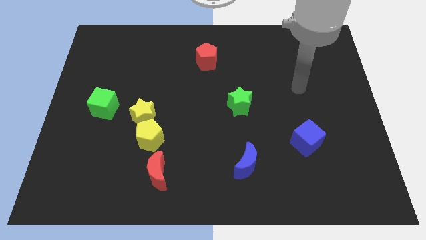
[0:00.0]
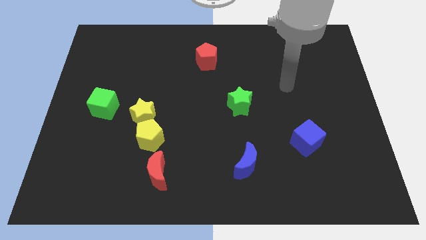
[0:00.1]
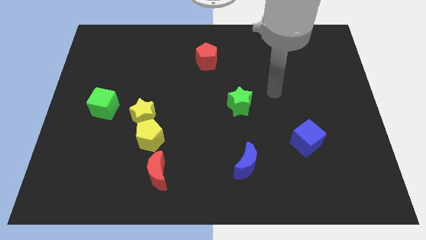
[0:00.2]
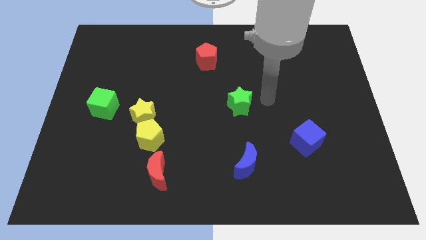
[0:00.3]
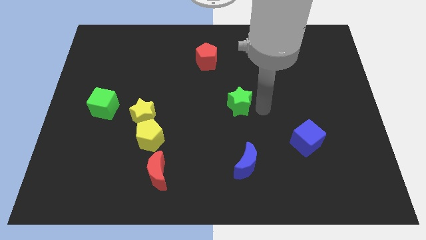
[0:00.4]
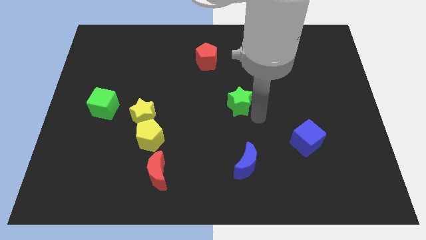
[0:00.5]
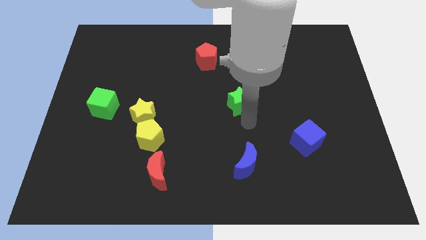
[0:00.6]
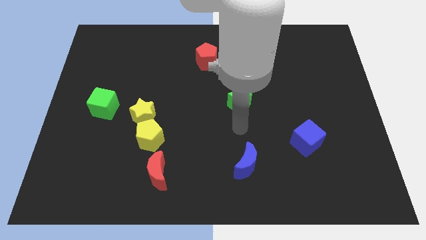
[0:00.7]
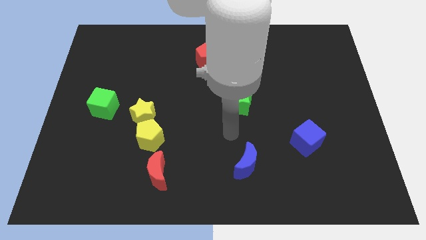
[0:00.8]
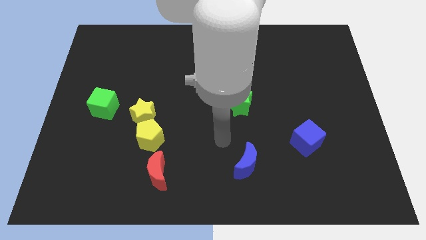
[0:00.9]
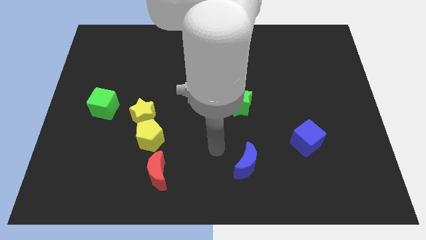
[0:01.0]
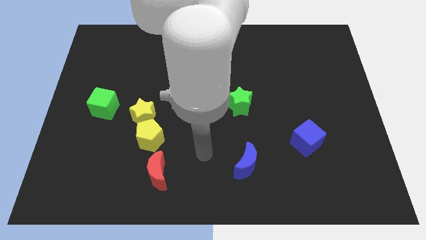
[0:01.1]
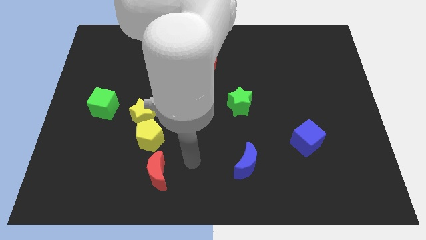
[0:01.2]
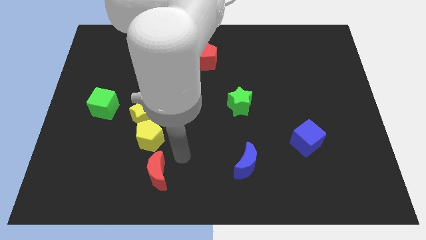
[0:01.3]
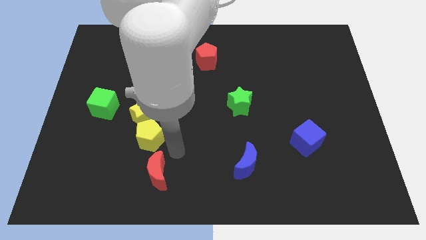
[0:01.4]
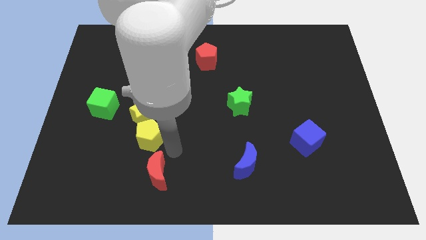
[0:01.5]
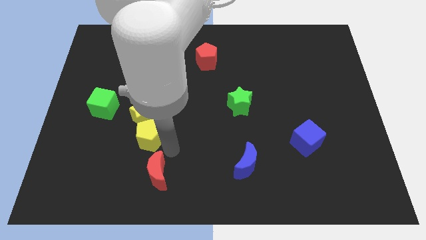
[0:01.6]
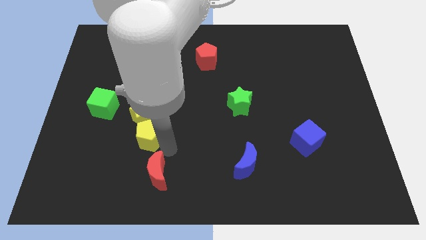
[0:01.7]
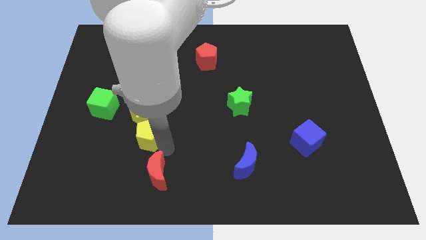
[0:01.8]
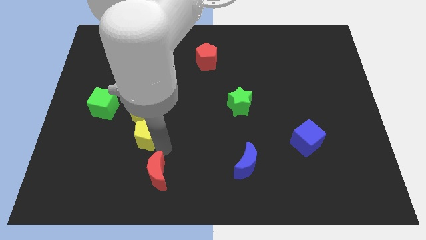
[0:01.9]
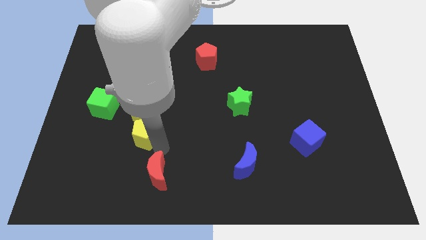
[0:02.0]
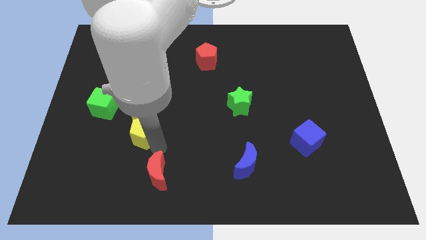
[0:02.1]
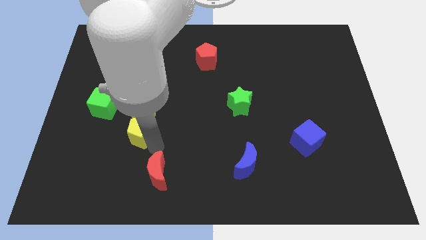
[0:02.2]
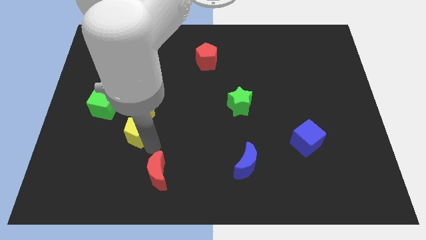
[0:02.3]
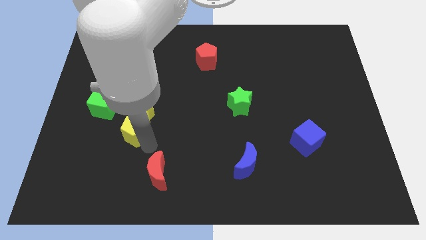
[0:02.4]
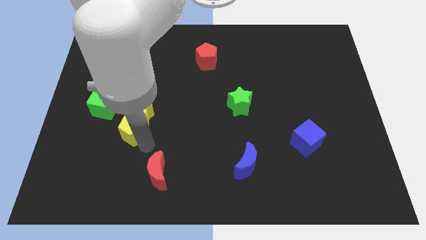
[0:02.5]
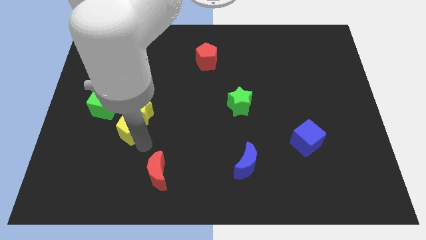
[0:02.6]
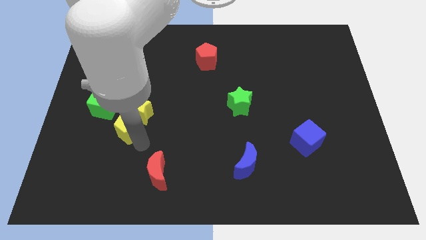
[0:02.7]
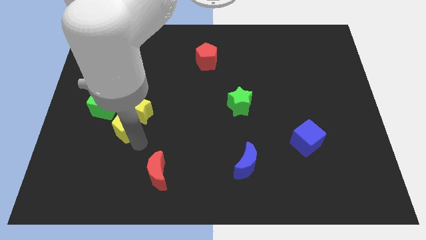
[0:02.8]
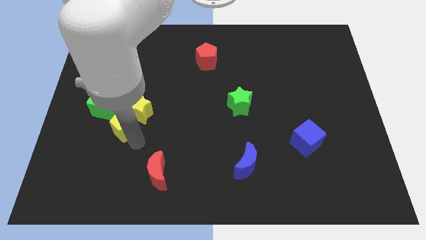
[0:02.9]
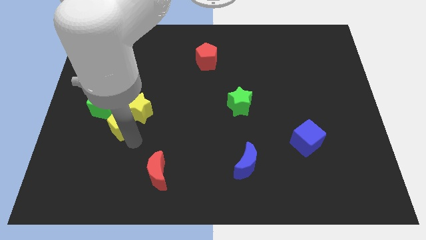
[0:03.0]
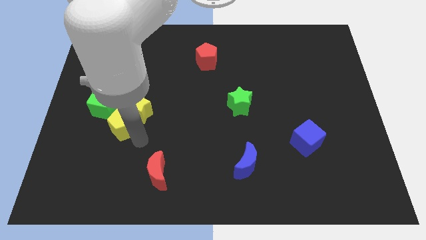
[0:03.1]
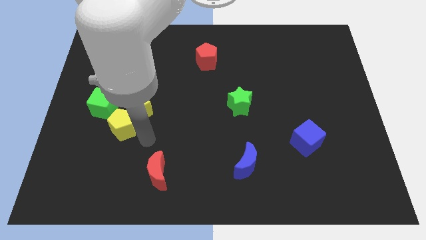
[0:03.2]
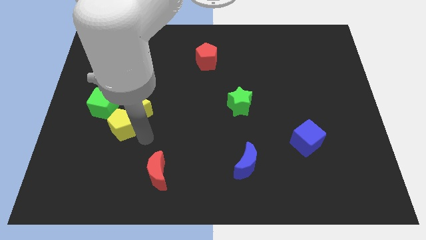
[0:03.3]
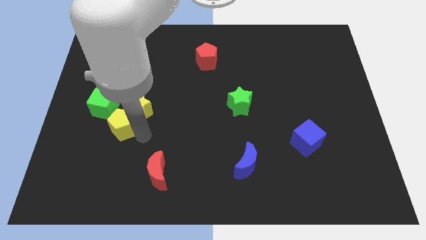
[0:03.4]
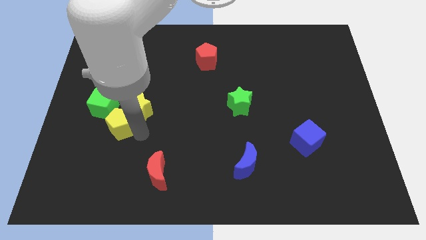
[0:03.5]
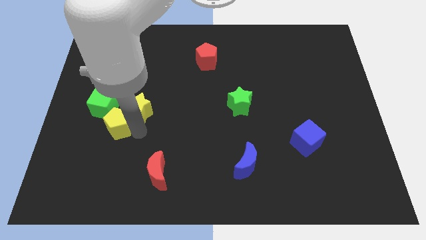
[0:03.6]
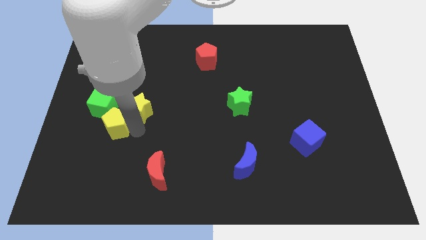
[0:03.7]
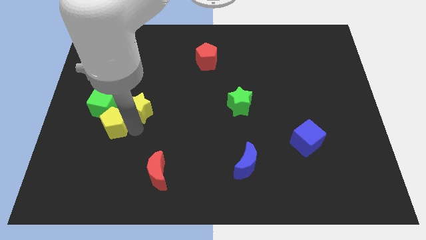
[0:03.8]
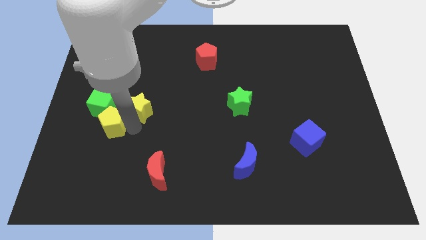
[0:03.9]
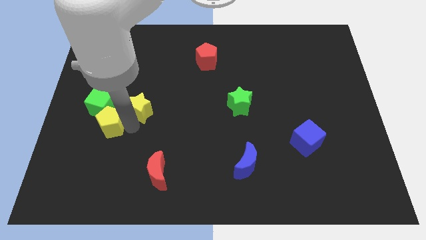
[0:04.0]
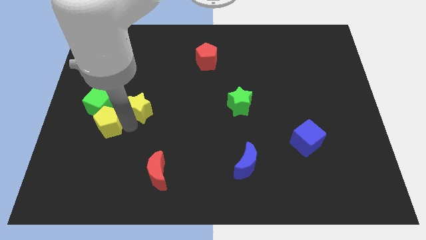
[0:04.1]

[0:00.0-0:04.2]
move the yellow pentagon away from the yellow star and red moon

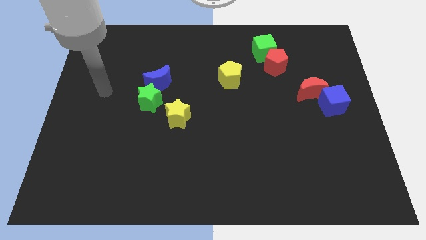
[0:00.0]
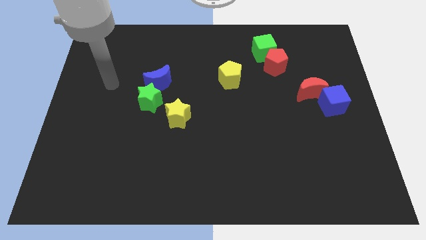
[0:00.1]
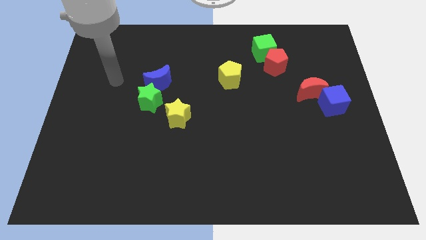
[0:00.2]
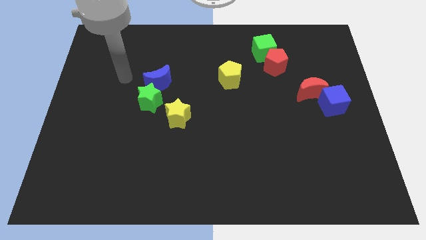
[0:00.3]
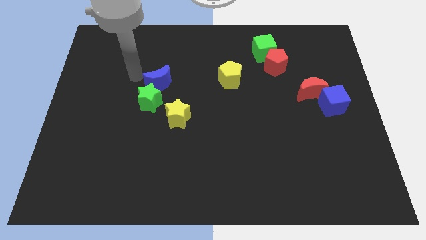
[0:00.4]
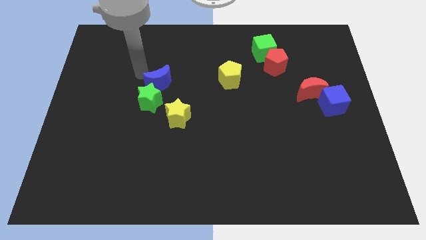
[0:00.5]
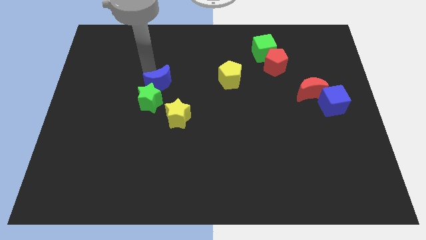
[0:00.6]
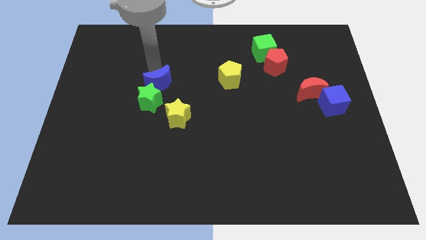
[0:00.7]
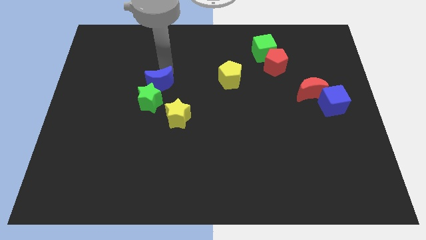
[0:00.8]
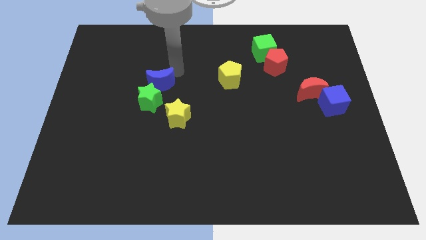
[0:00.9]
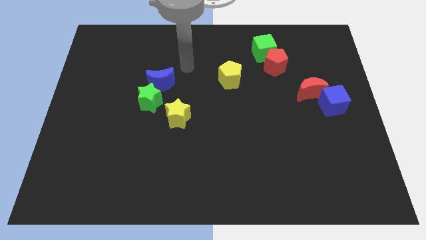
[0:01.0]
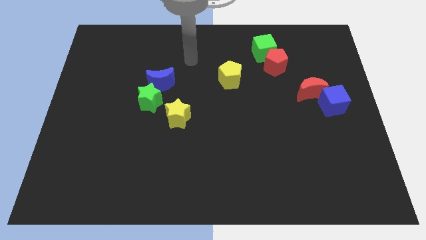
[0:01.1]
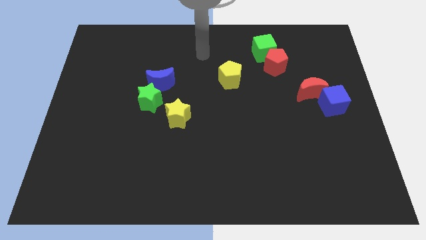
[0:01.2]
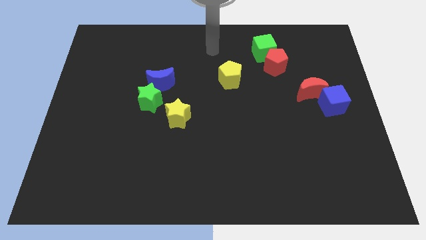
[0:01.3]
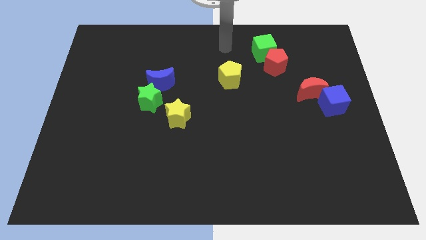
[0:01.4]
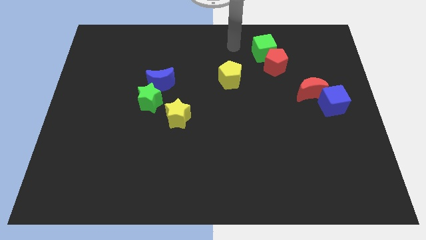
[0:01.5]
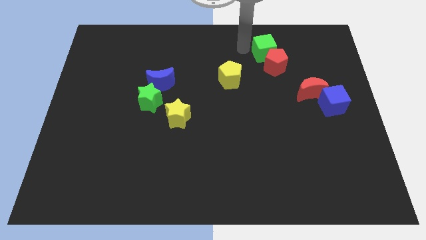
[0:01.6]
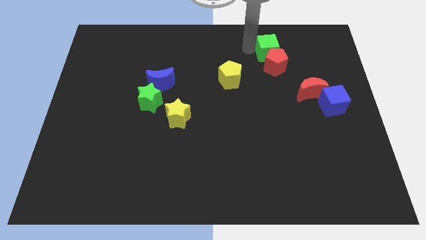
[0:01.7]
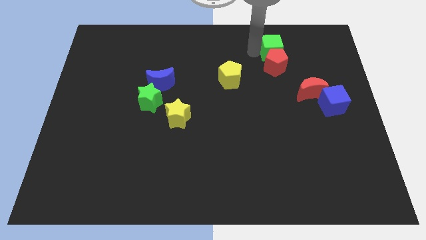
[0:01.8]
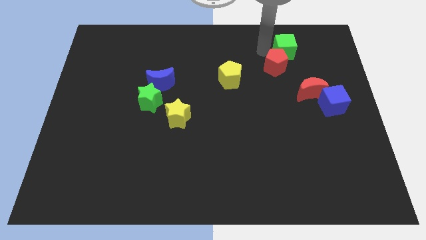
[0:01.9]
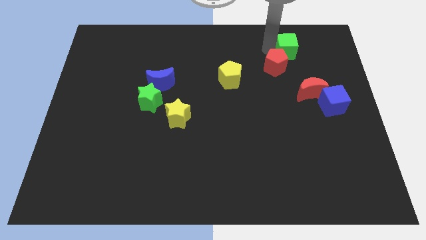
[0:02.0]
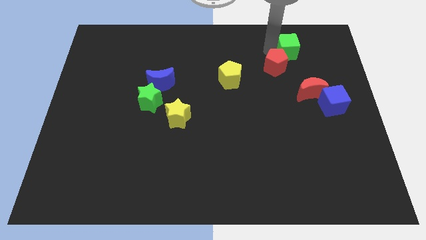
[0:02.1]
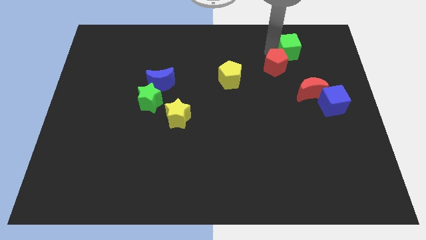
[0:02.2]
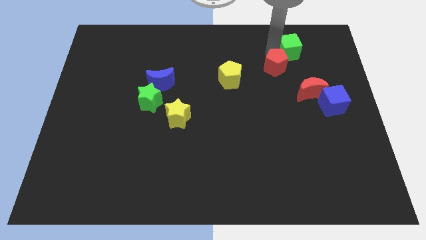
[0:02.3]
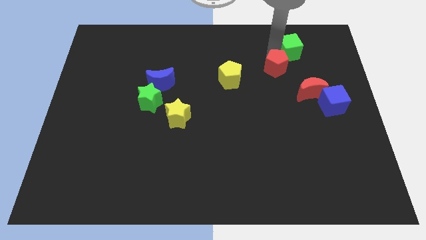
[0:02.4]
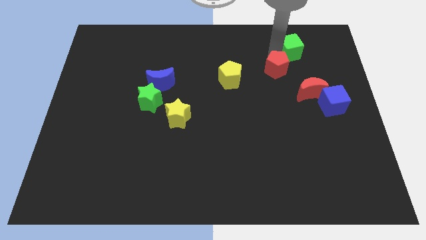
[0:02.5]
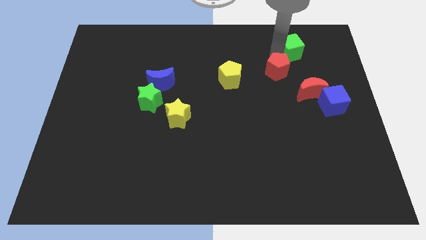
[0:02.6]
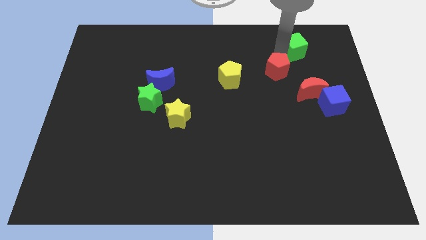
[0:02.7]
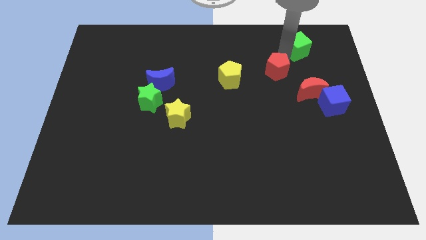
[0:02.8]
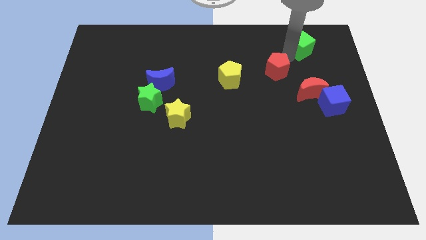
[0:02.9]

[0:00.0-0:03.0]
move the red pentagon away from the green cube

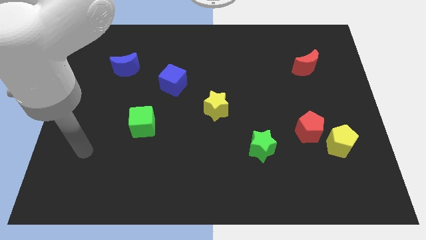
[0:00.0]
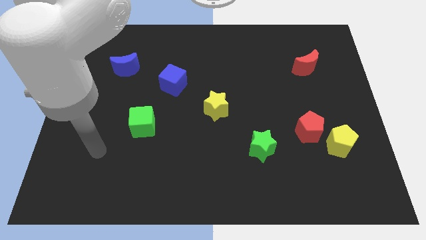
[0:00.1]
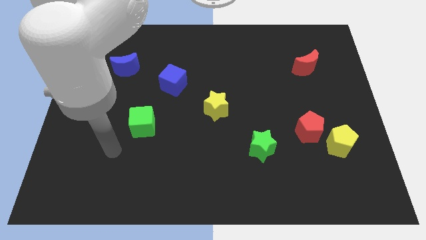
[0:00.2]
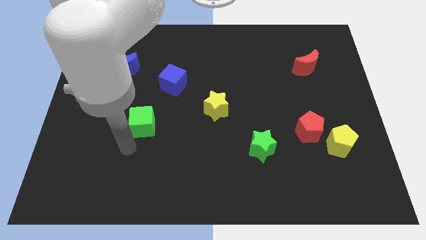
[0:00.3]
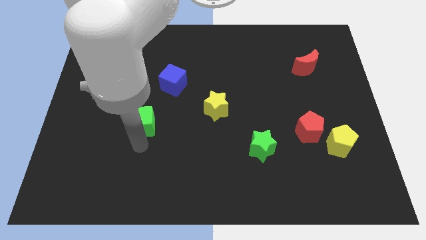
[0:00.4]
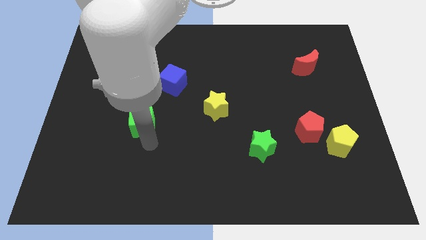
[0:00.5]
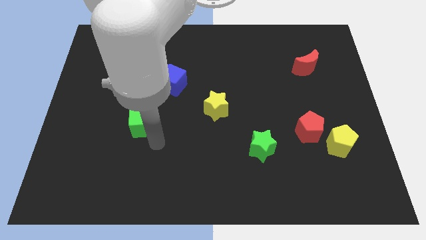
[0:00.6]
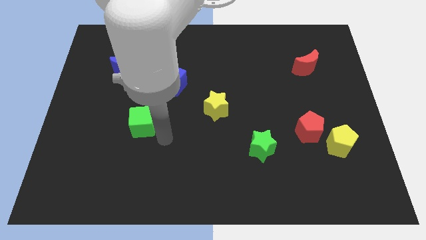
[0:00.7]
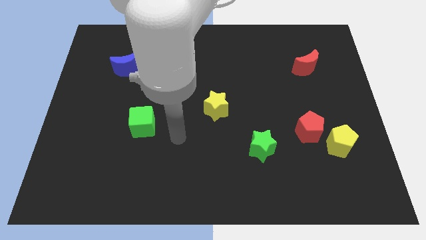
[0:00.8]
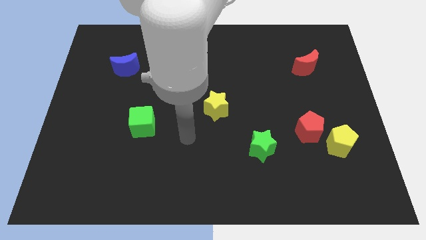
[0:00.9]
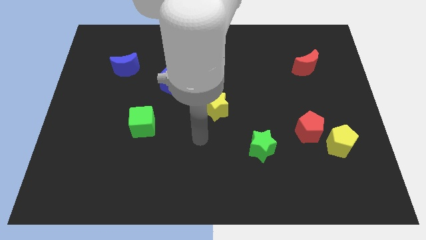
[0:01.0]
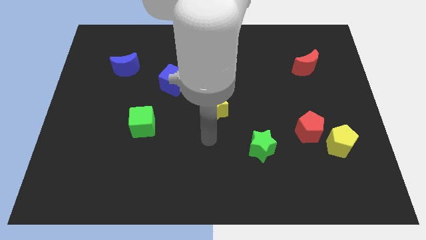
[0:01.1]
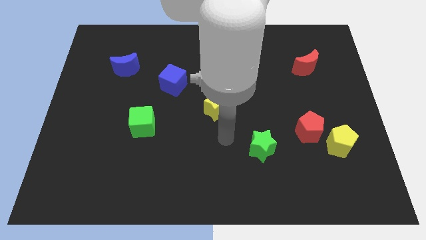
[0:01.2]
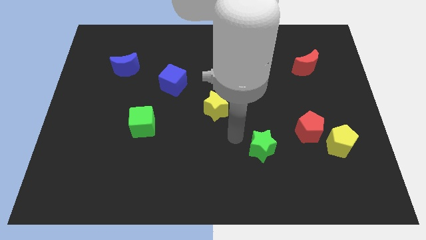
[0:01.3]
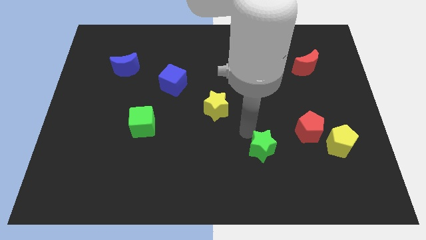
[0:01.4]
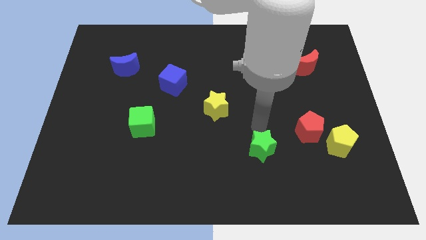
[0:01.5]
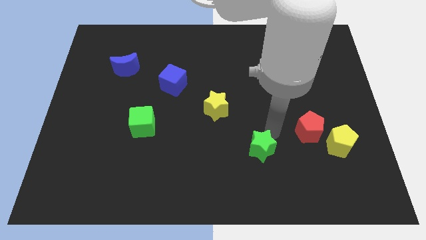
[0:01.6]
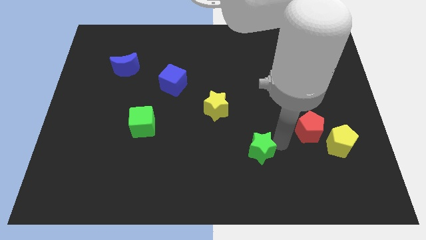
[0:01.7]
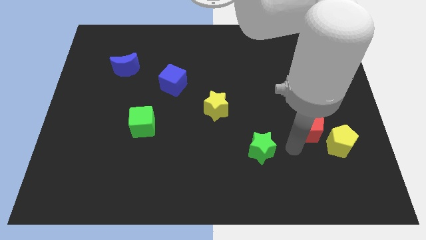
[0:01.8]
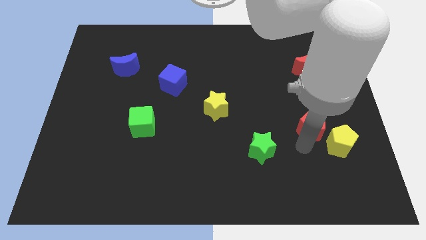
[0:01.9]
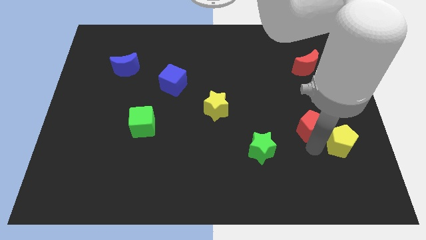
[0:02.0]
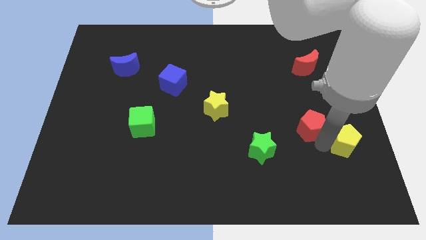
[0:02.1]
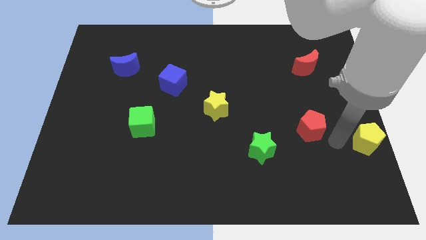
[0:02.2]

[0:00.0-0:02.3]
separate the red pentagon from the yellow pentagon
